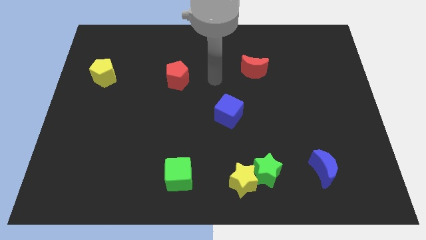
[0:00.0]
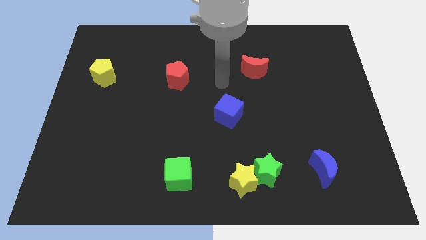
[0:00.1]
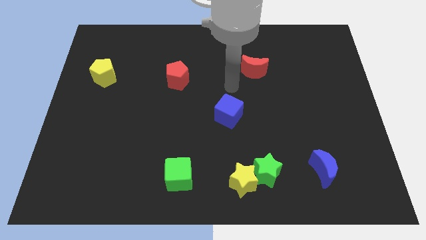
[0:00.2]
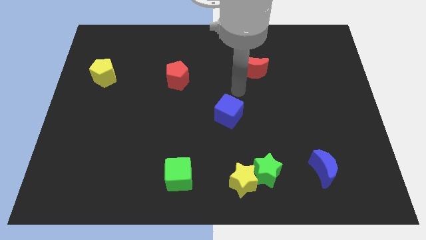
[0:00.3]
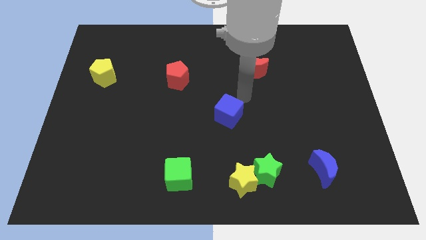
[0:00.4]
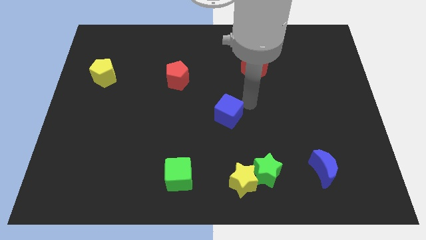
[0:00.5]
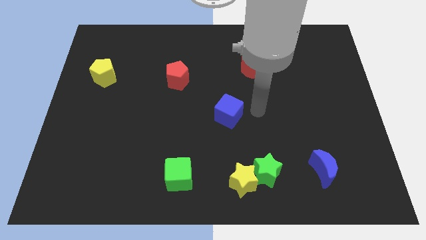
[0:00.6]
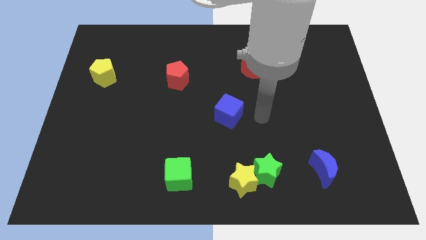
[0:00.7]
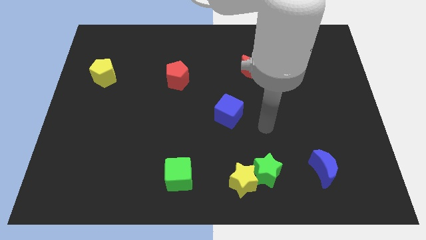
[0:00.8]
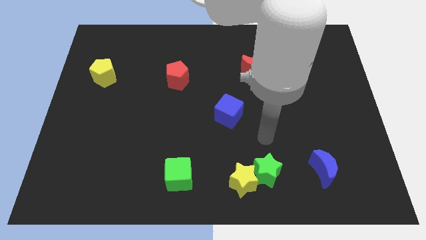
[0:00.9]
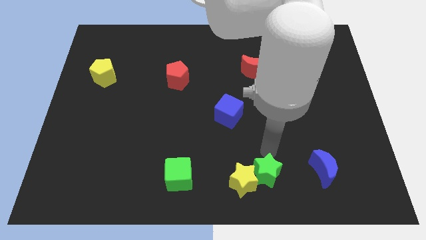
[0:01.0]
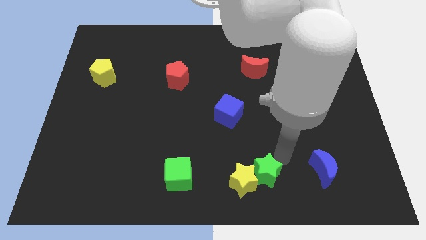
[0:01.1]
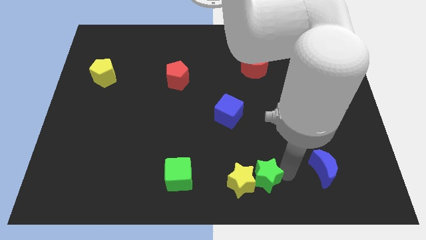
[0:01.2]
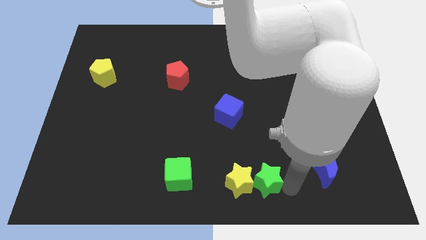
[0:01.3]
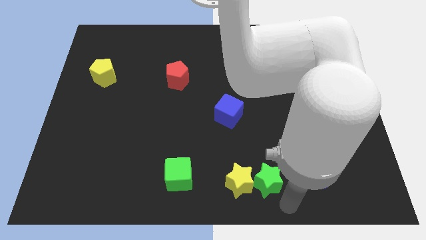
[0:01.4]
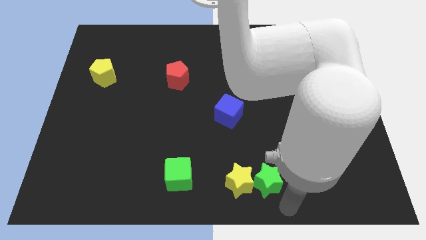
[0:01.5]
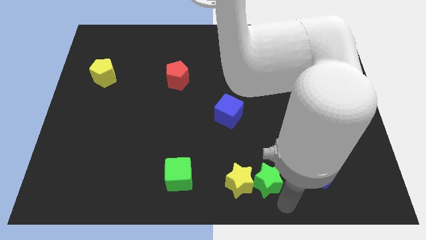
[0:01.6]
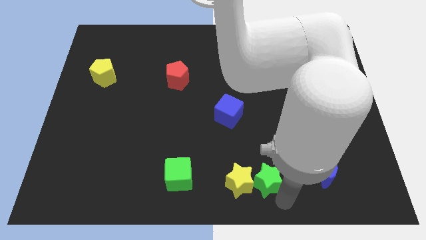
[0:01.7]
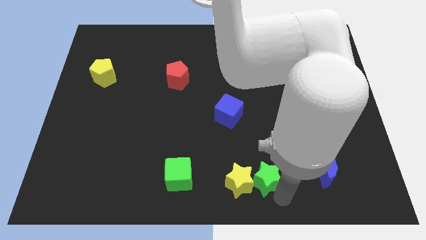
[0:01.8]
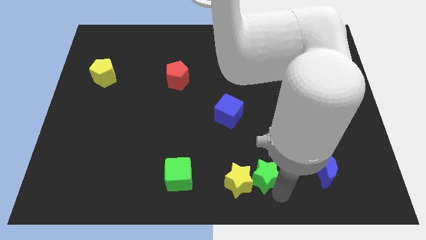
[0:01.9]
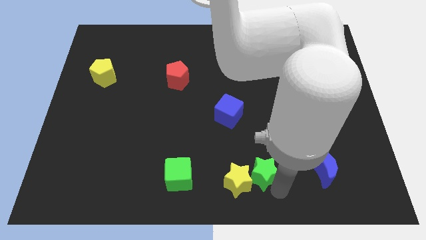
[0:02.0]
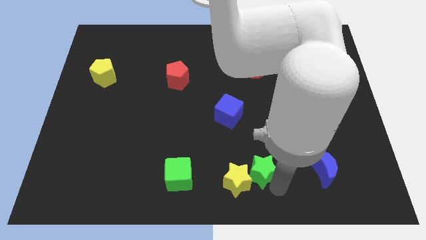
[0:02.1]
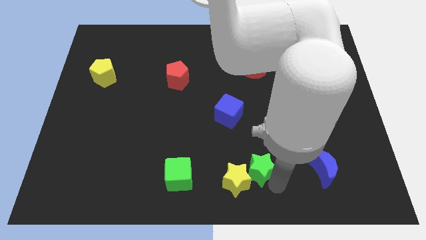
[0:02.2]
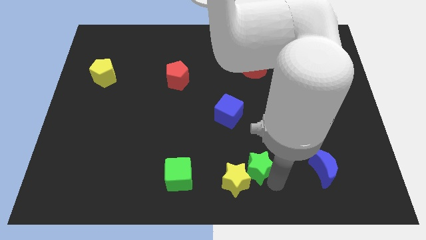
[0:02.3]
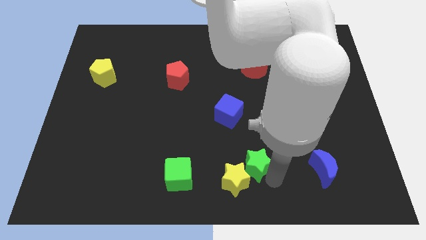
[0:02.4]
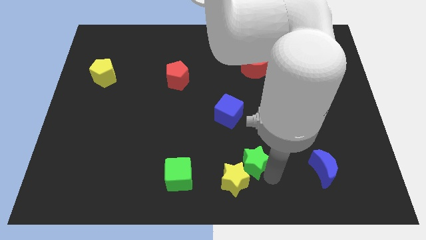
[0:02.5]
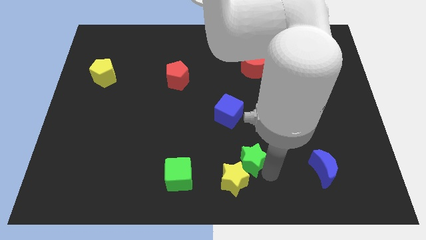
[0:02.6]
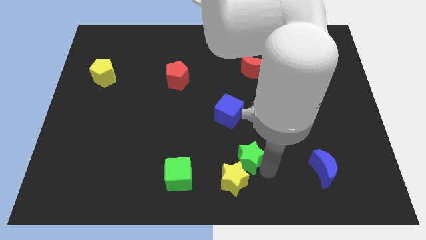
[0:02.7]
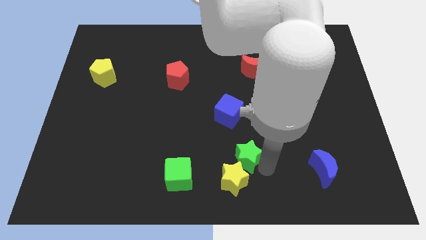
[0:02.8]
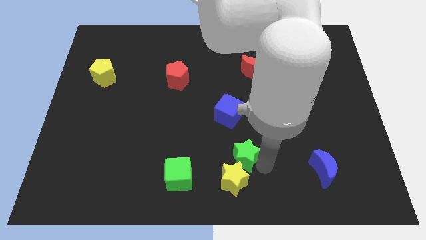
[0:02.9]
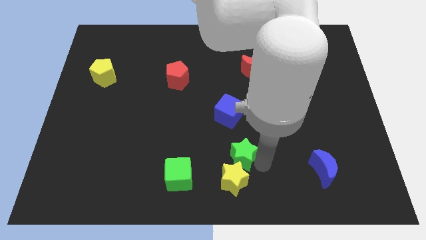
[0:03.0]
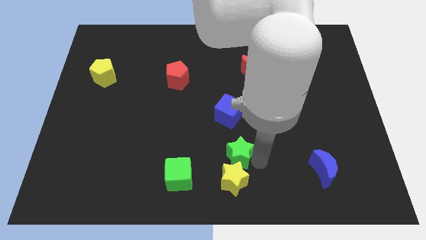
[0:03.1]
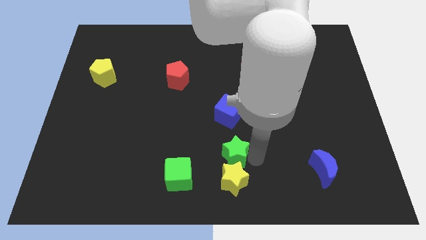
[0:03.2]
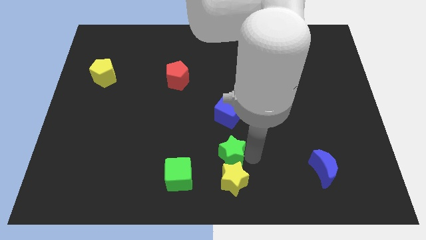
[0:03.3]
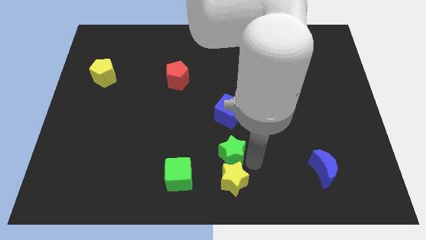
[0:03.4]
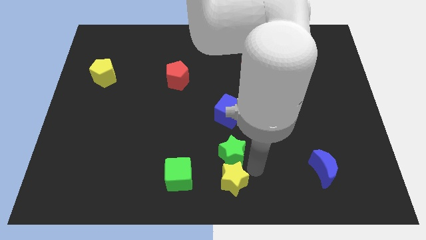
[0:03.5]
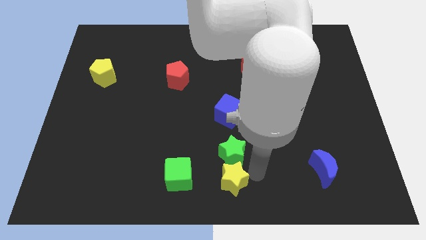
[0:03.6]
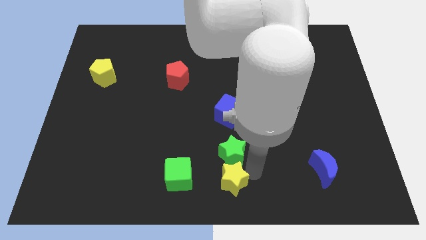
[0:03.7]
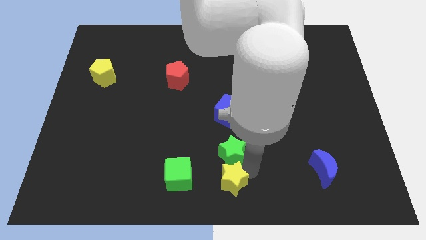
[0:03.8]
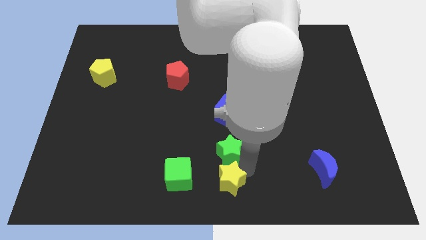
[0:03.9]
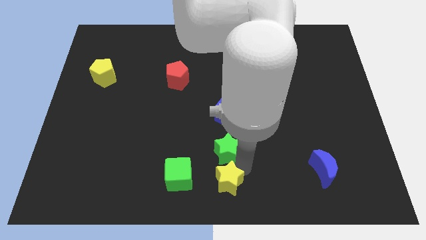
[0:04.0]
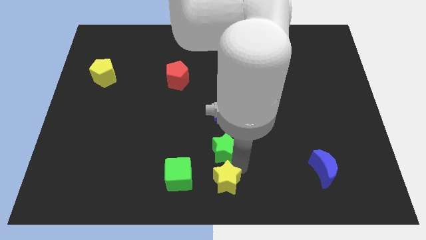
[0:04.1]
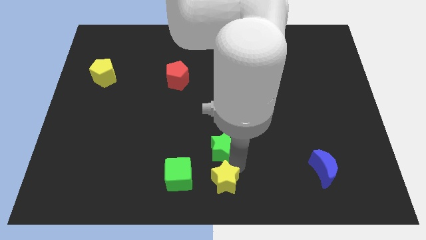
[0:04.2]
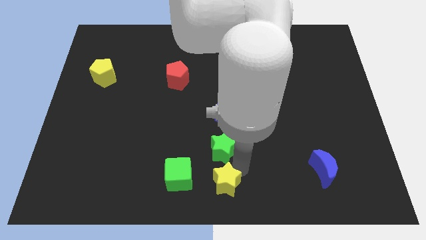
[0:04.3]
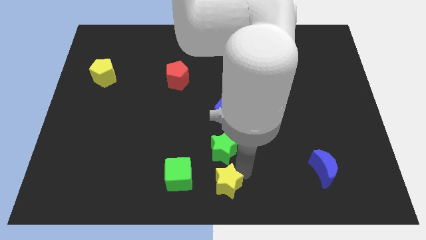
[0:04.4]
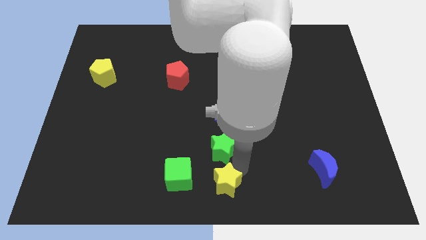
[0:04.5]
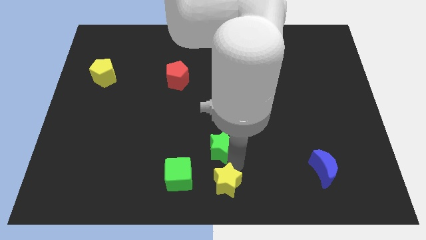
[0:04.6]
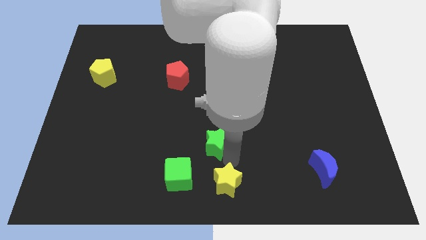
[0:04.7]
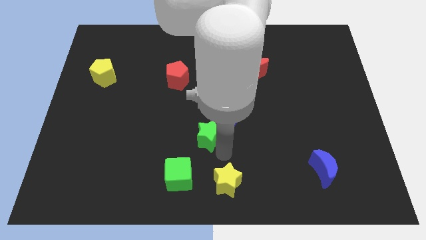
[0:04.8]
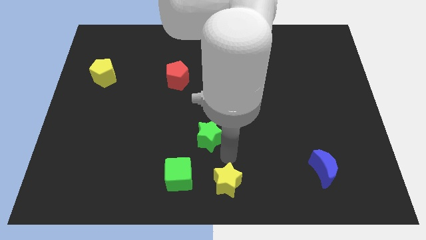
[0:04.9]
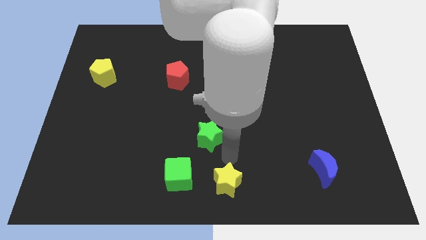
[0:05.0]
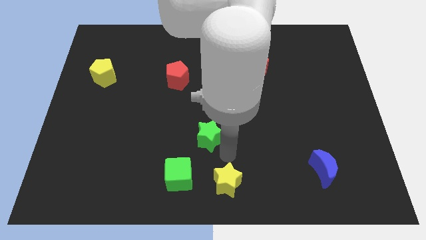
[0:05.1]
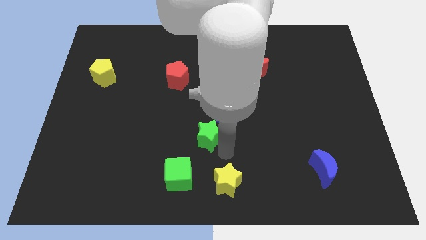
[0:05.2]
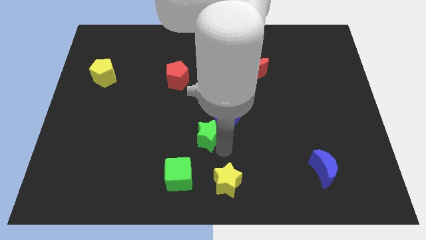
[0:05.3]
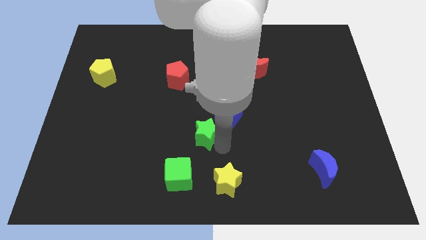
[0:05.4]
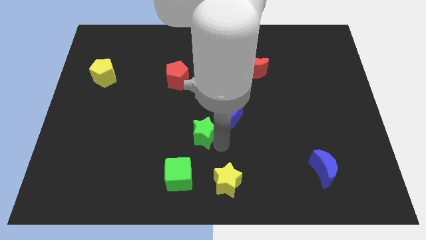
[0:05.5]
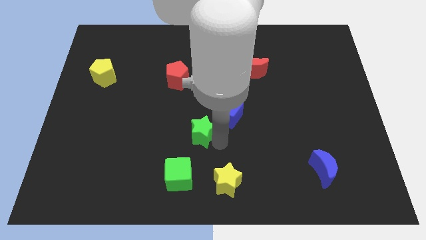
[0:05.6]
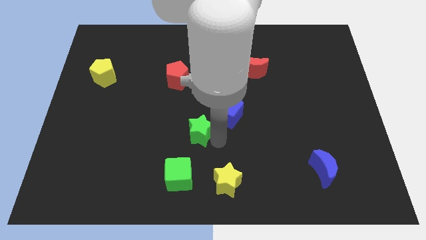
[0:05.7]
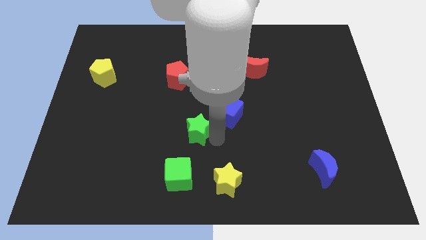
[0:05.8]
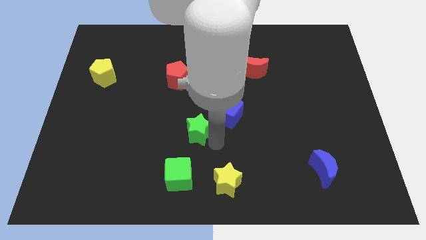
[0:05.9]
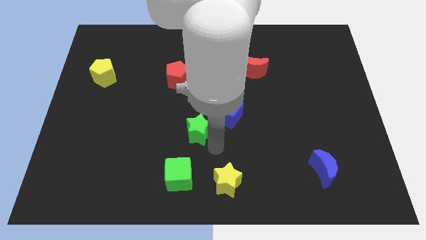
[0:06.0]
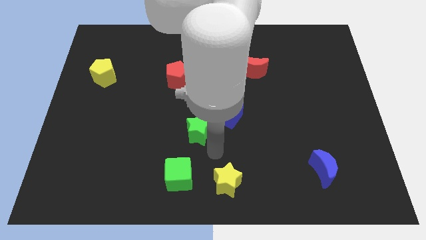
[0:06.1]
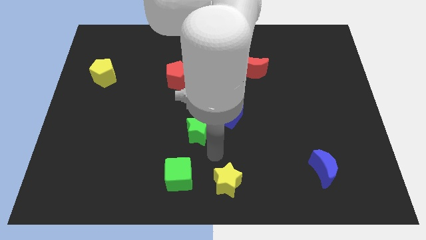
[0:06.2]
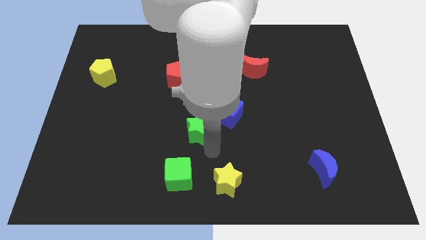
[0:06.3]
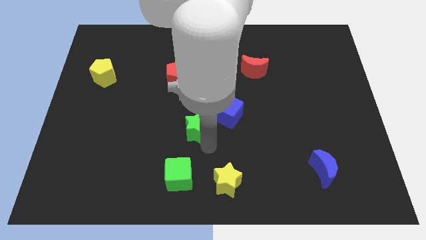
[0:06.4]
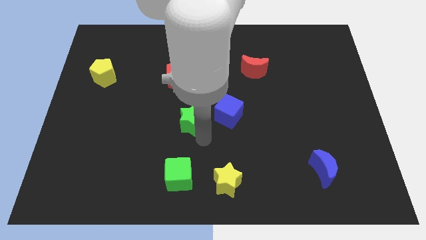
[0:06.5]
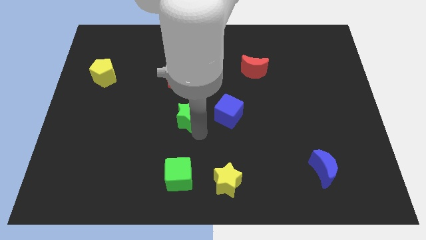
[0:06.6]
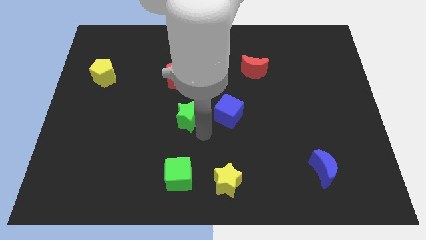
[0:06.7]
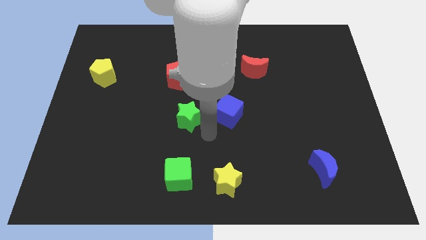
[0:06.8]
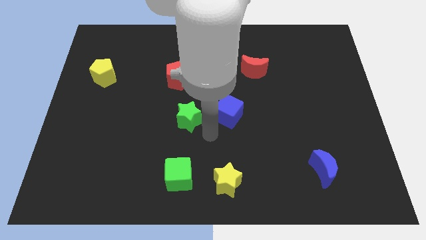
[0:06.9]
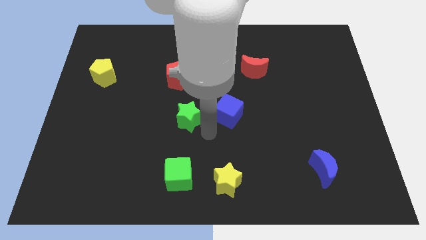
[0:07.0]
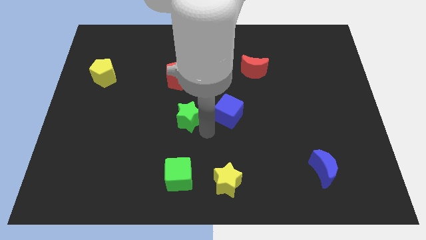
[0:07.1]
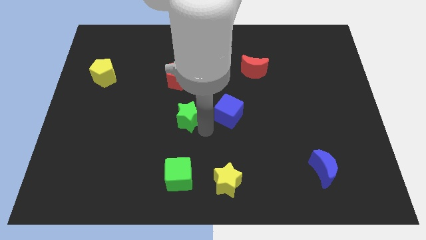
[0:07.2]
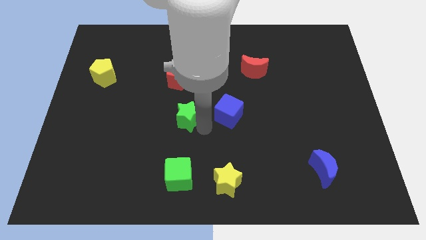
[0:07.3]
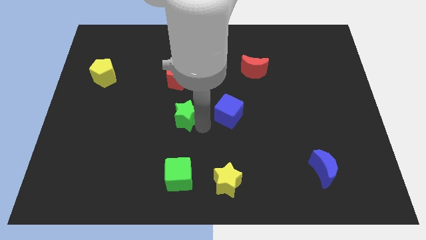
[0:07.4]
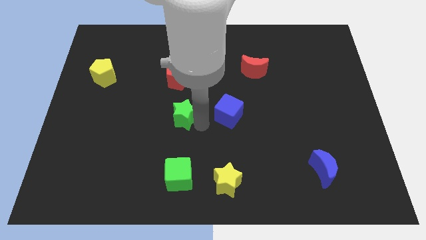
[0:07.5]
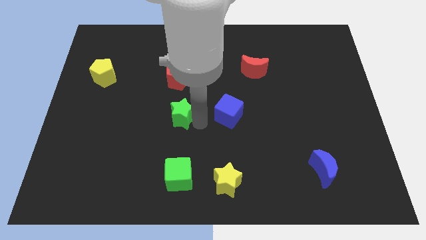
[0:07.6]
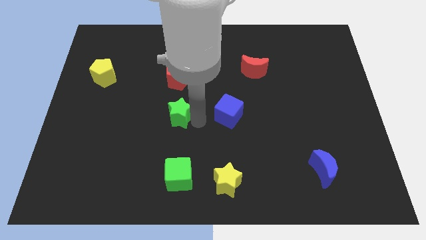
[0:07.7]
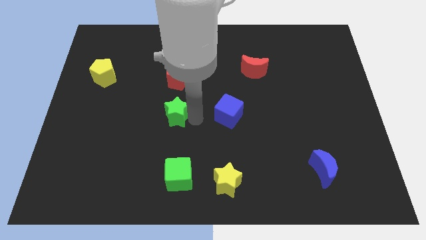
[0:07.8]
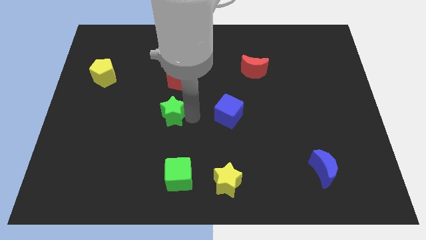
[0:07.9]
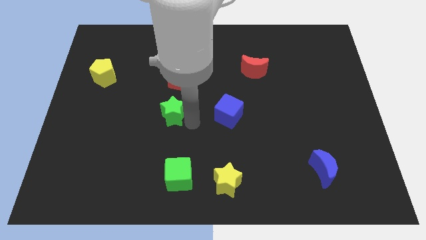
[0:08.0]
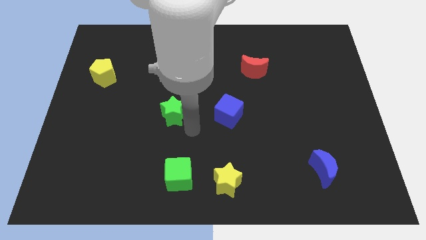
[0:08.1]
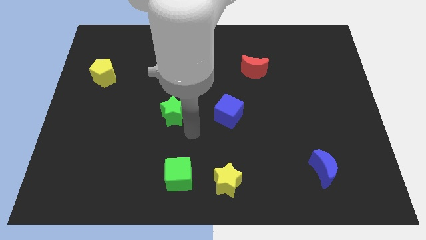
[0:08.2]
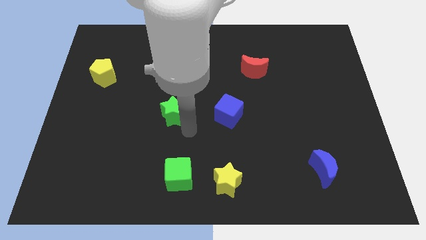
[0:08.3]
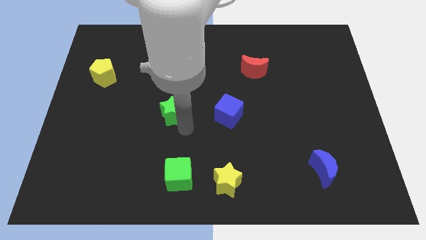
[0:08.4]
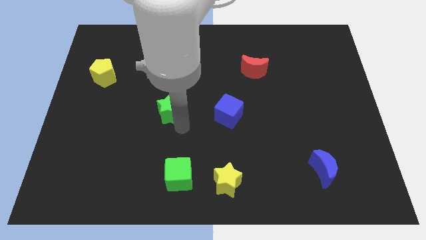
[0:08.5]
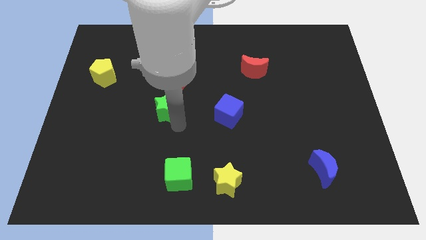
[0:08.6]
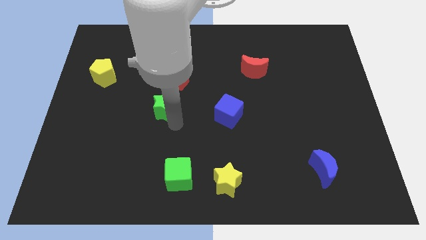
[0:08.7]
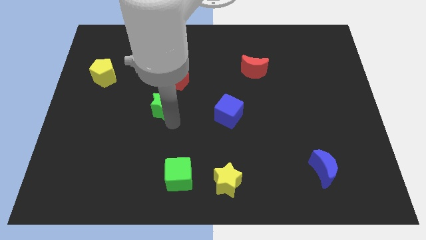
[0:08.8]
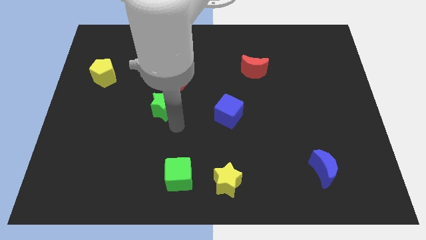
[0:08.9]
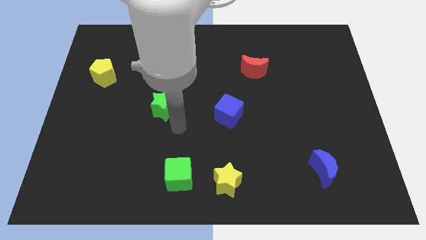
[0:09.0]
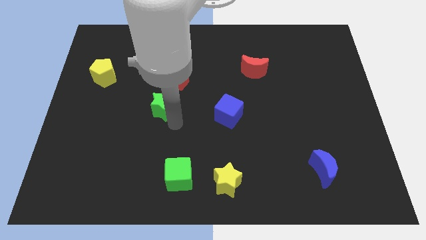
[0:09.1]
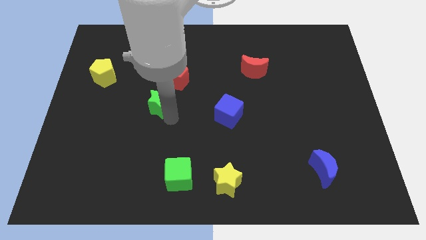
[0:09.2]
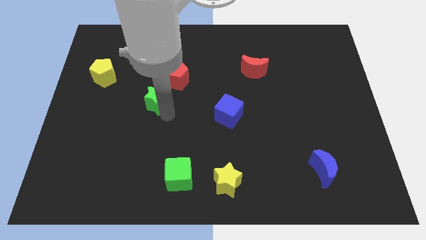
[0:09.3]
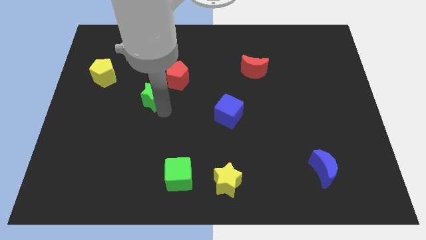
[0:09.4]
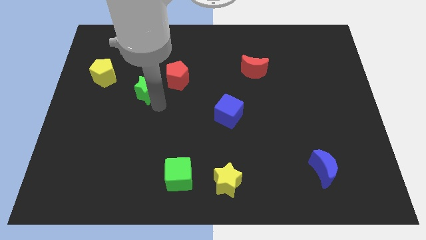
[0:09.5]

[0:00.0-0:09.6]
push the green star to the left of the red pentagon
